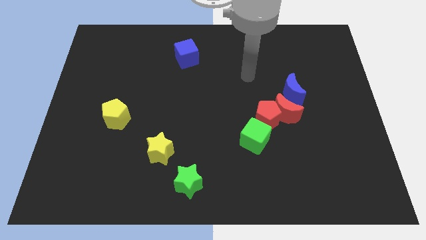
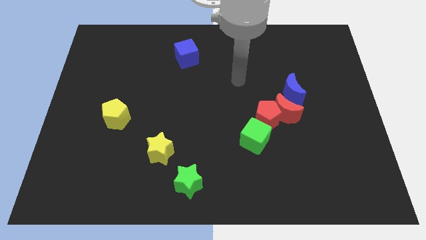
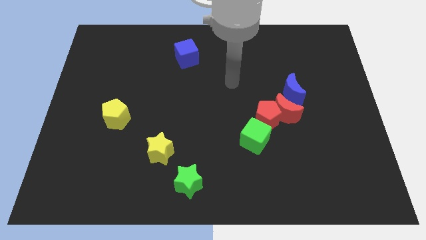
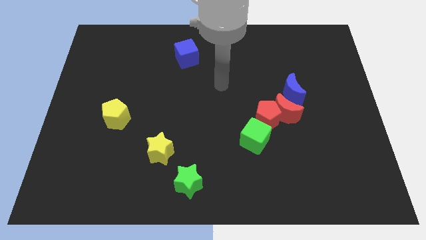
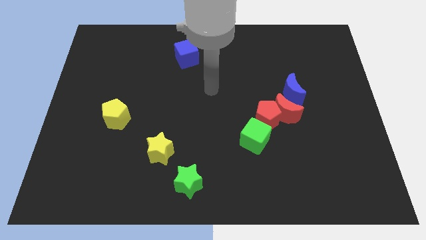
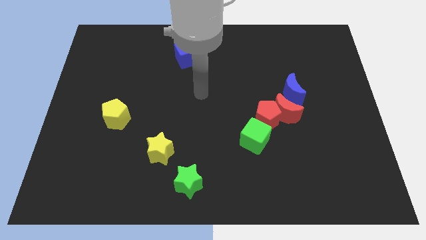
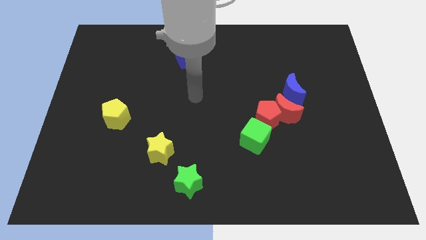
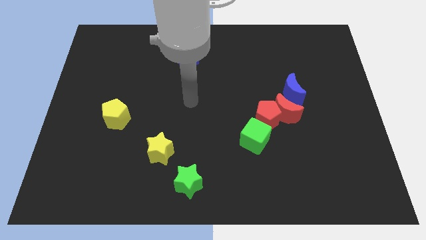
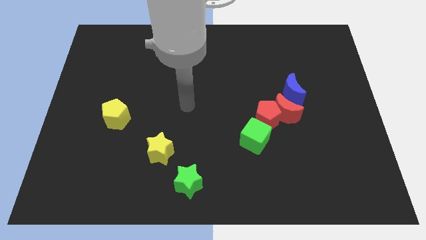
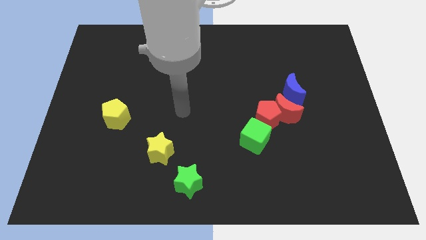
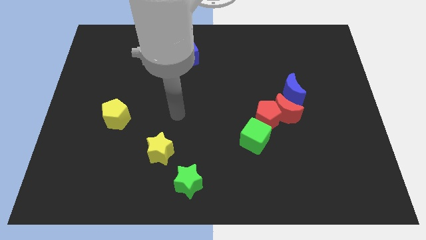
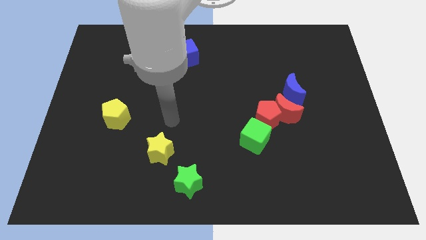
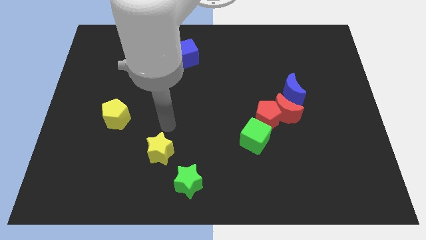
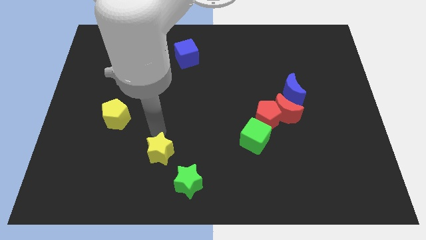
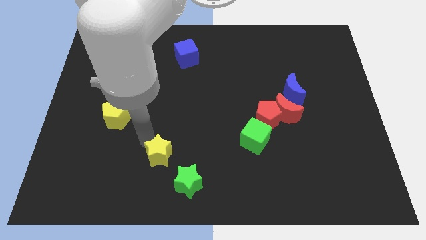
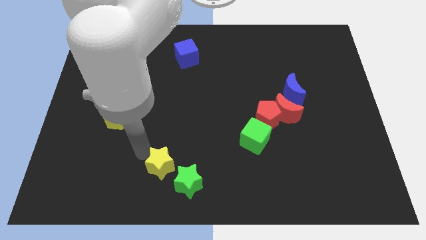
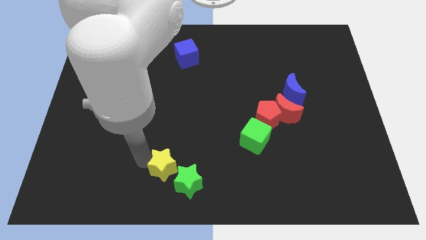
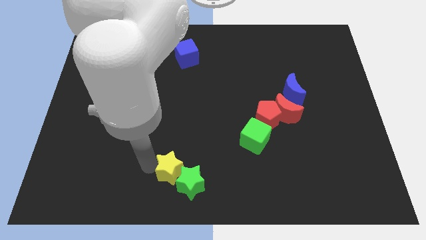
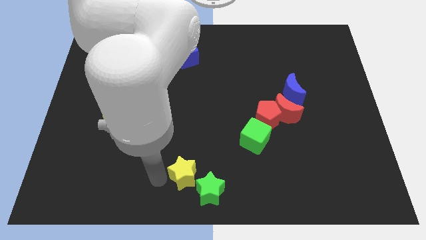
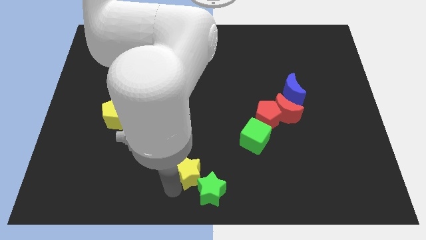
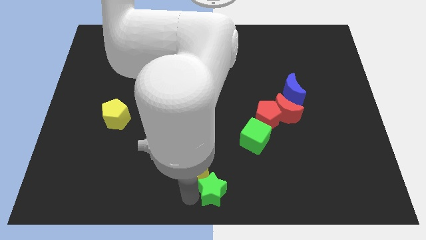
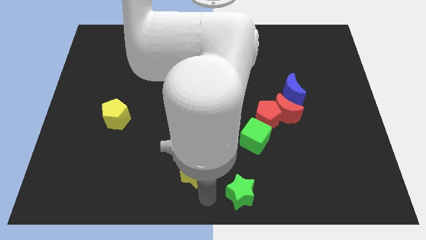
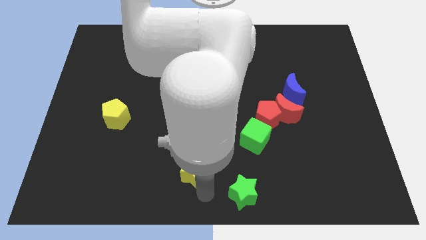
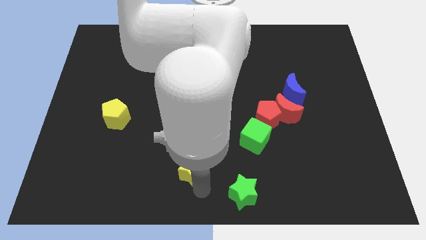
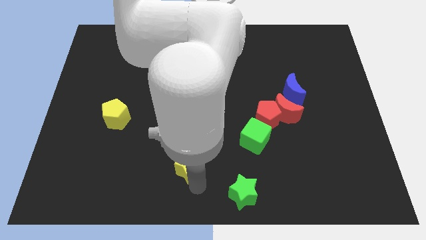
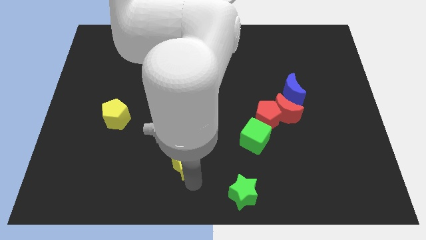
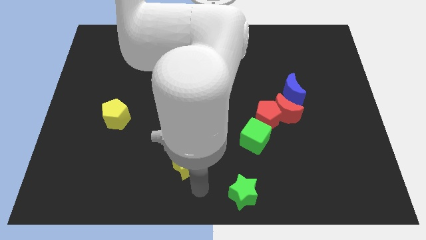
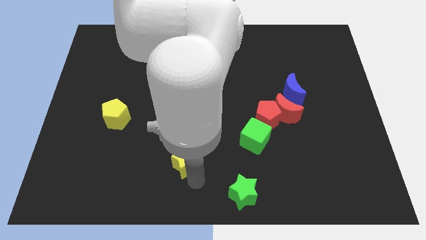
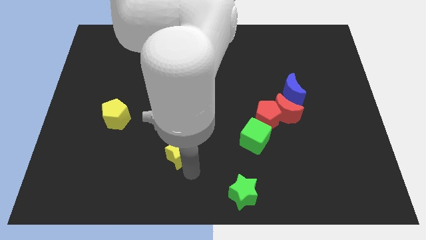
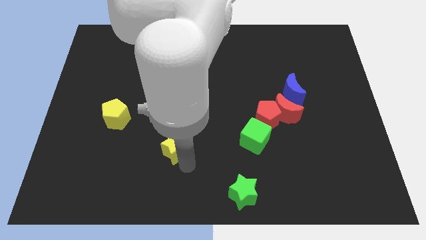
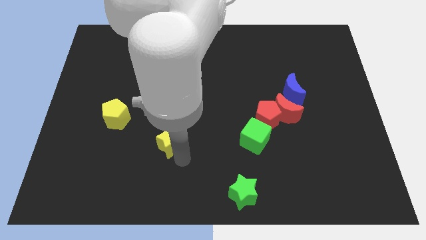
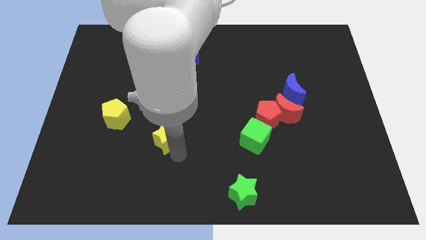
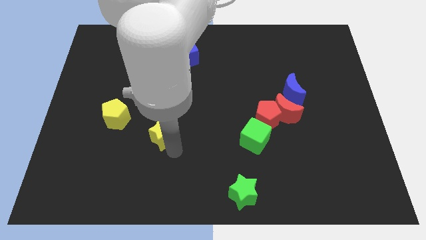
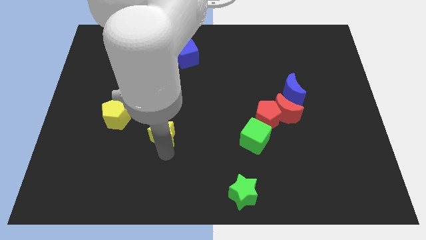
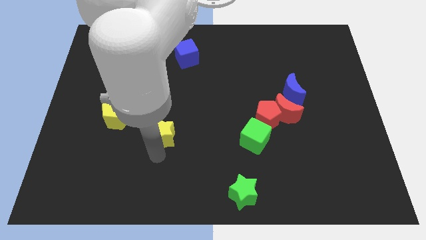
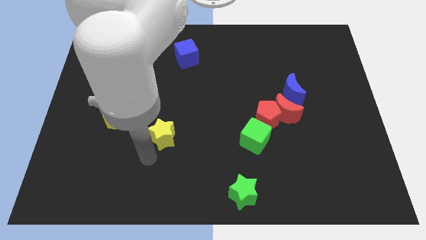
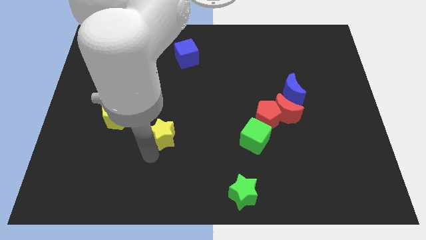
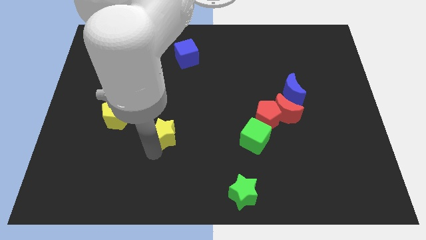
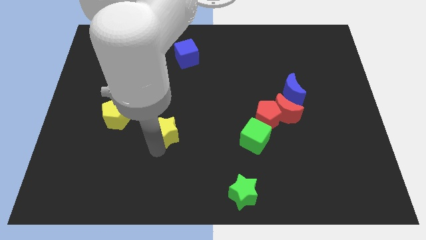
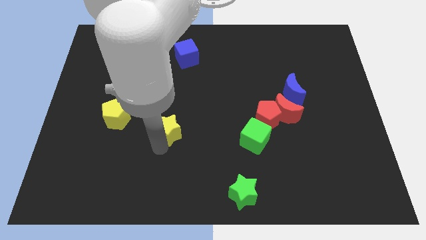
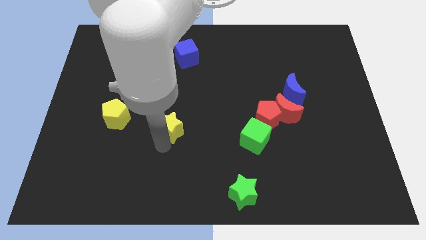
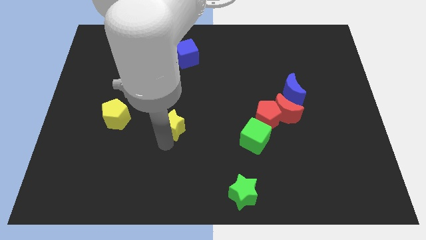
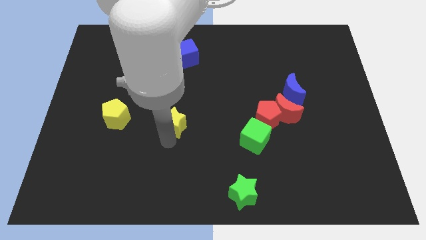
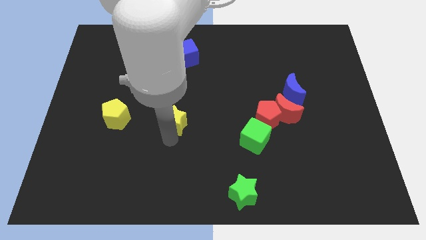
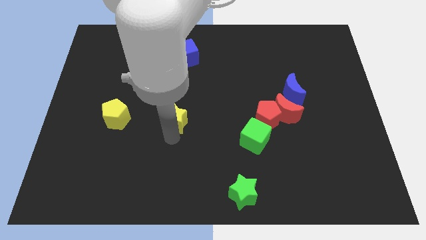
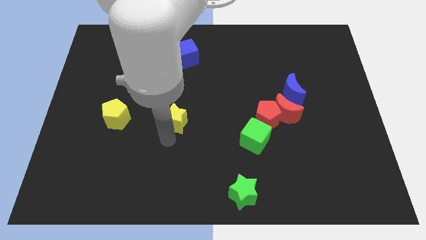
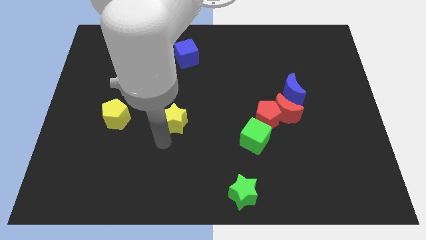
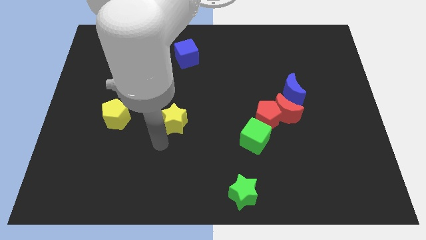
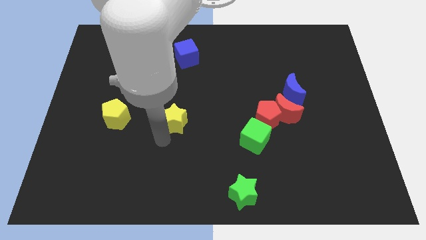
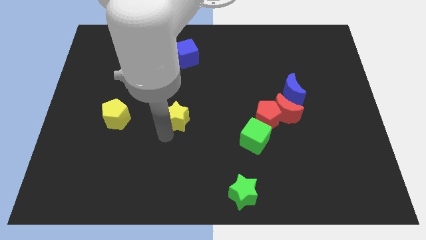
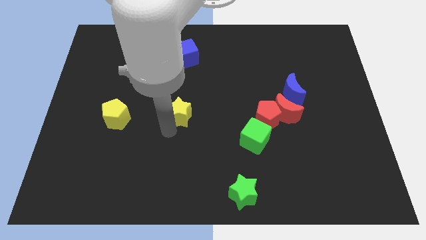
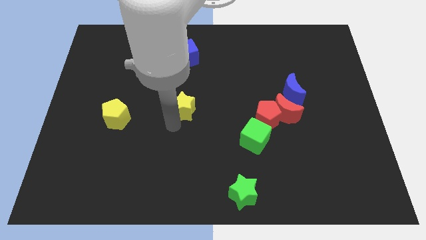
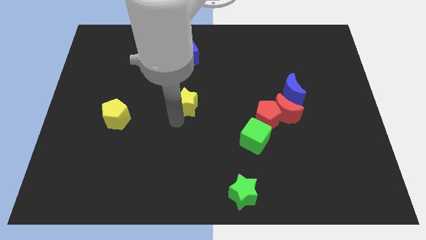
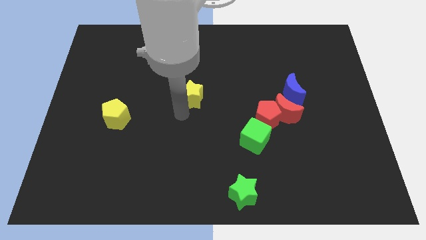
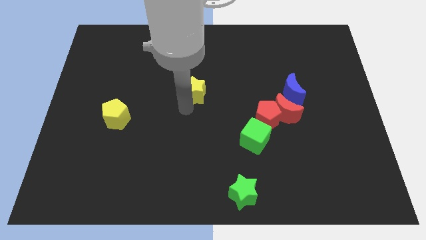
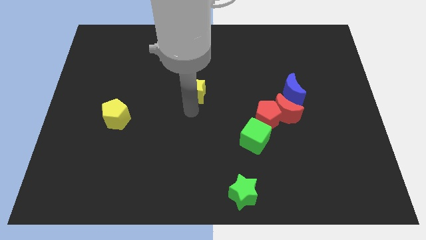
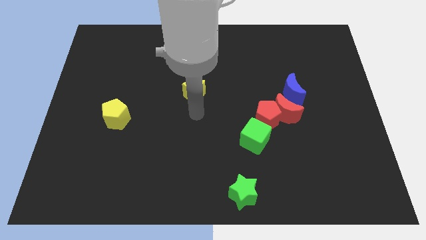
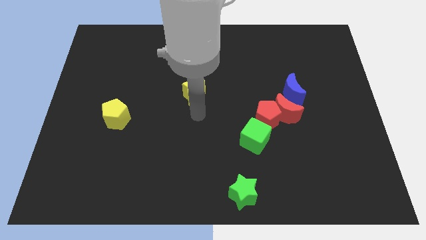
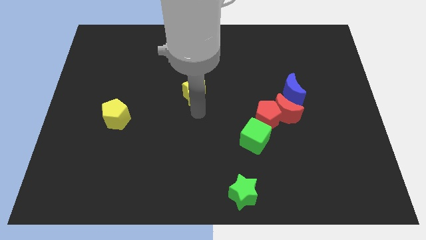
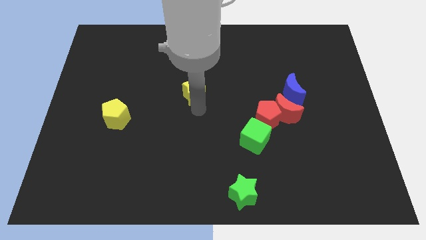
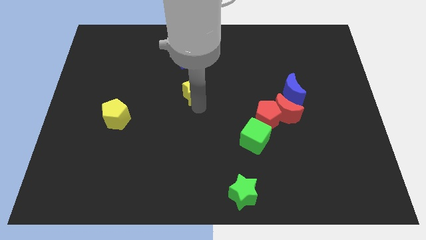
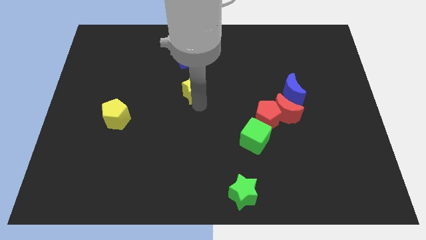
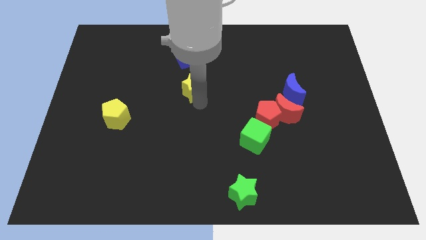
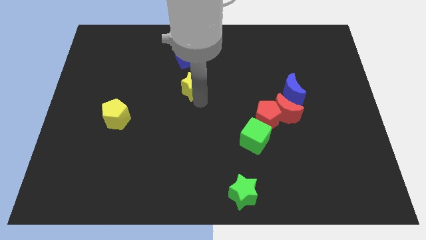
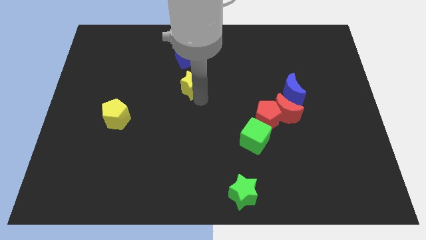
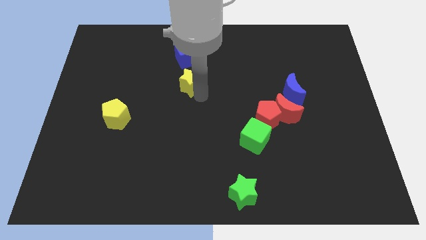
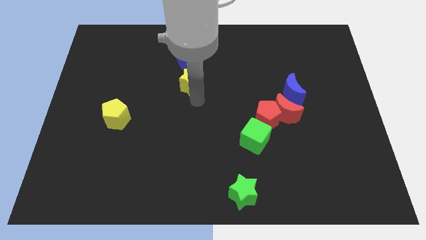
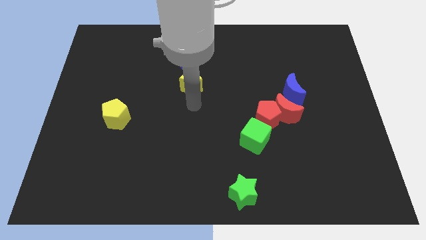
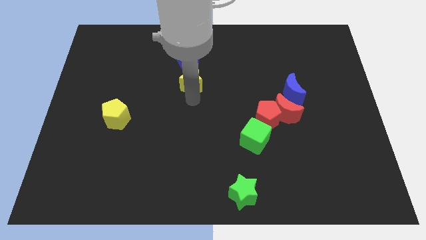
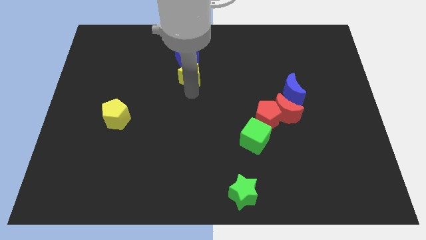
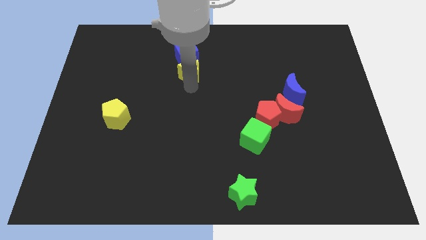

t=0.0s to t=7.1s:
slide the yellow star towards the blue cube
